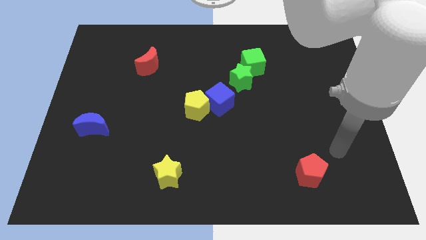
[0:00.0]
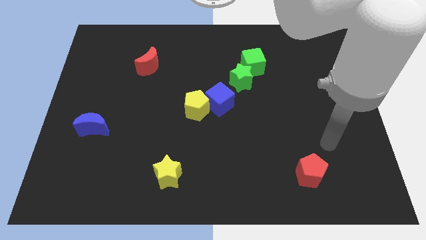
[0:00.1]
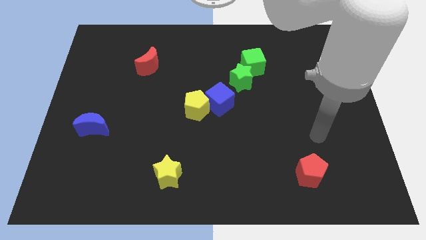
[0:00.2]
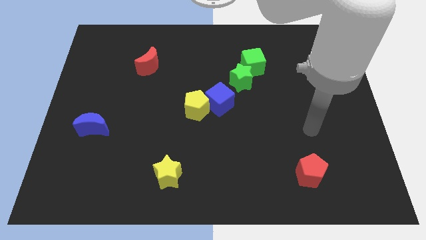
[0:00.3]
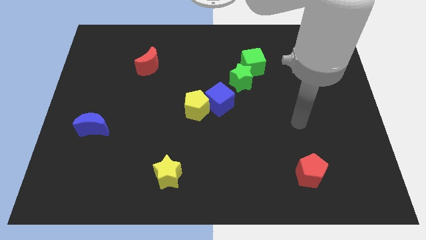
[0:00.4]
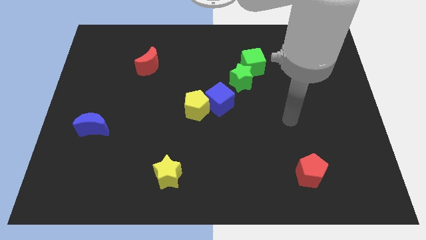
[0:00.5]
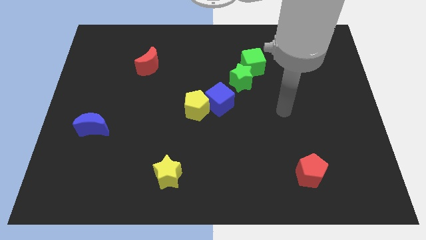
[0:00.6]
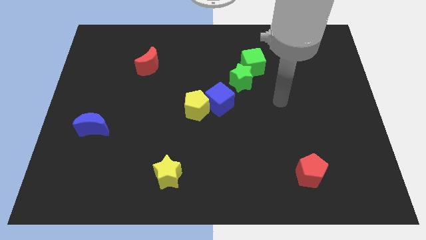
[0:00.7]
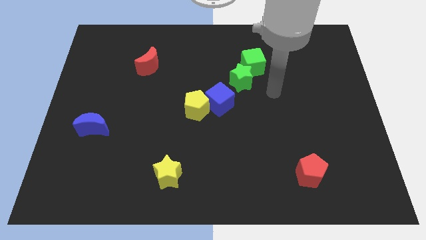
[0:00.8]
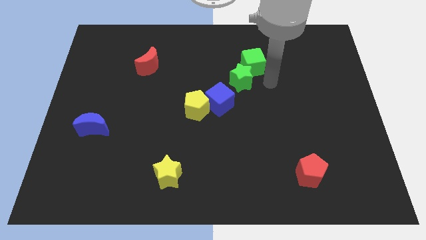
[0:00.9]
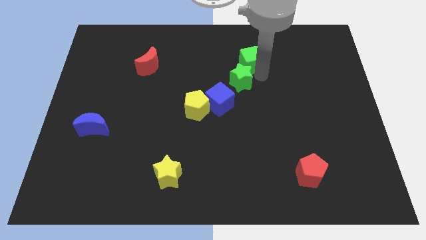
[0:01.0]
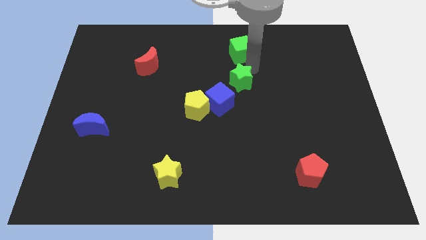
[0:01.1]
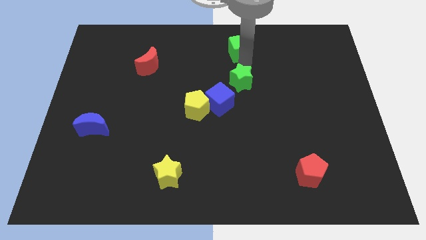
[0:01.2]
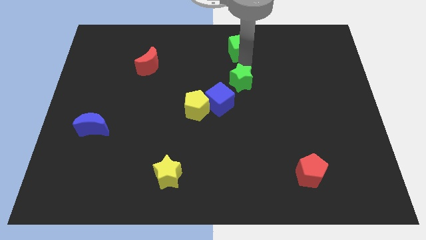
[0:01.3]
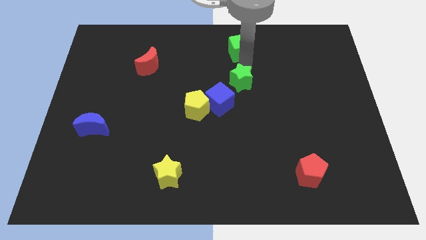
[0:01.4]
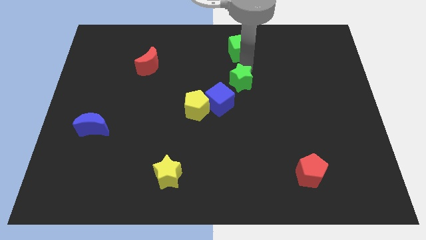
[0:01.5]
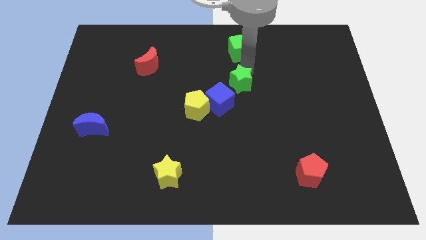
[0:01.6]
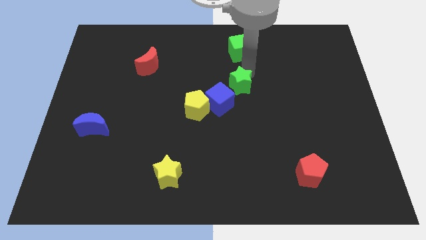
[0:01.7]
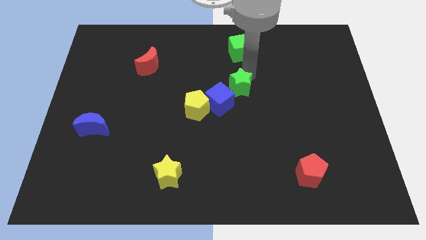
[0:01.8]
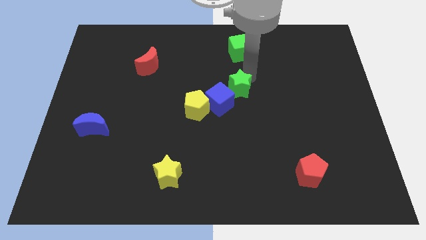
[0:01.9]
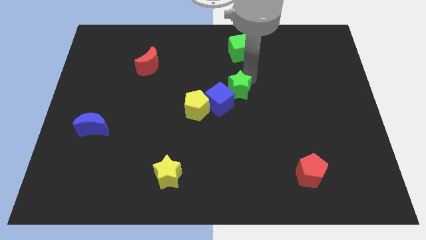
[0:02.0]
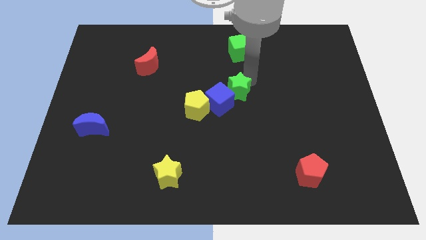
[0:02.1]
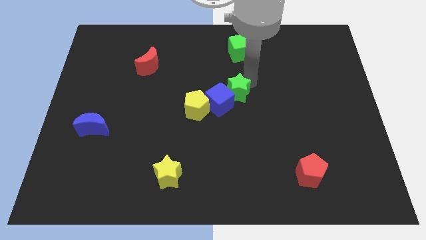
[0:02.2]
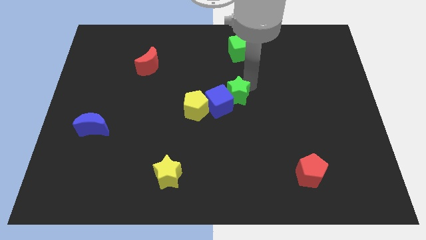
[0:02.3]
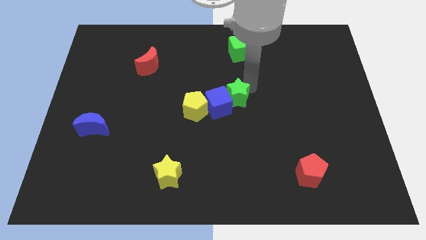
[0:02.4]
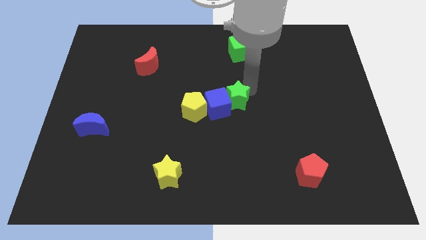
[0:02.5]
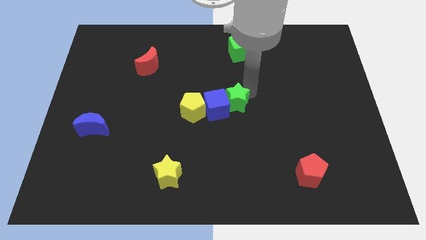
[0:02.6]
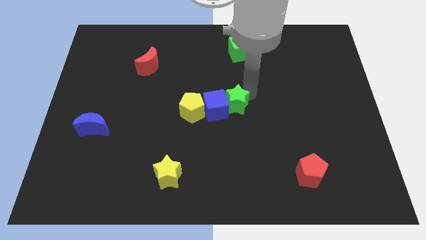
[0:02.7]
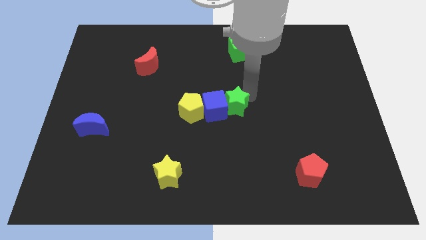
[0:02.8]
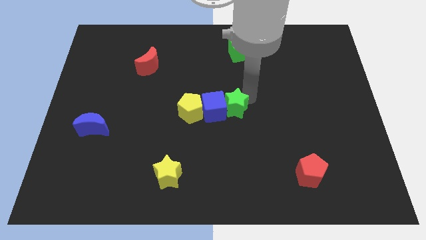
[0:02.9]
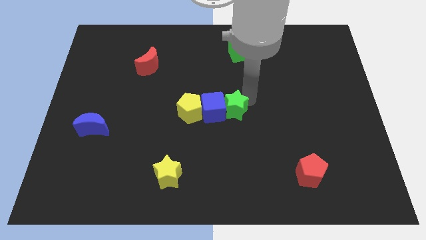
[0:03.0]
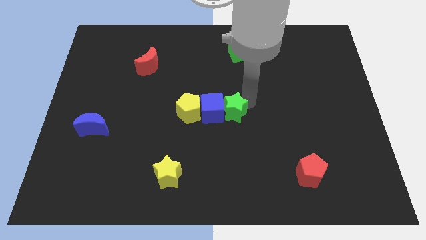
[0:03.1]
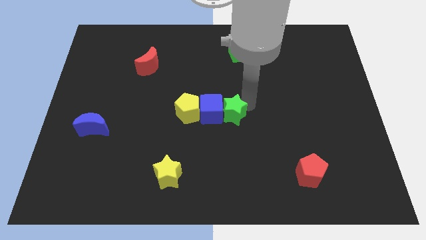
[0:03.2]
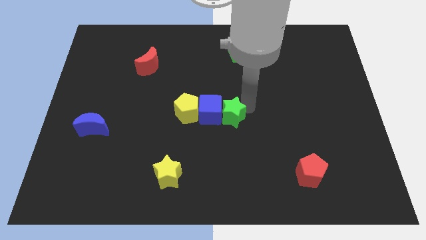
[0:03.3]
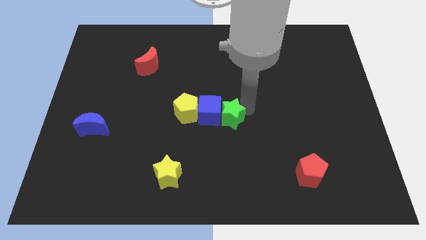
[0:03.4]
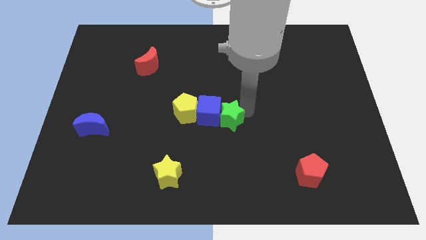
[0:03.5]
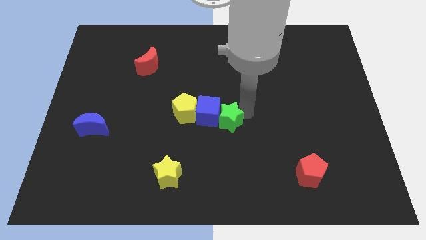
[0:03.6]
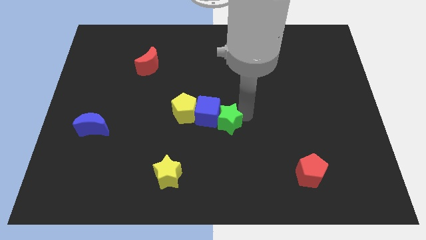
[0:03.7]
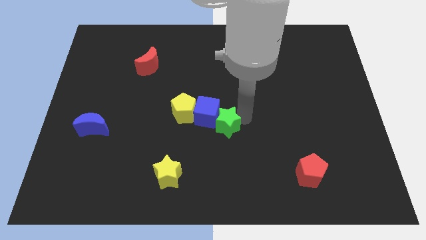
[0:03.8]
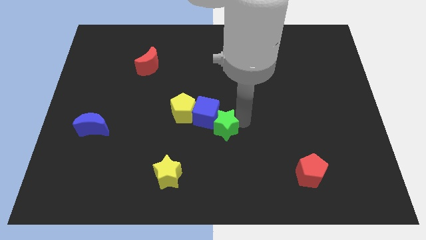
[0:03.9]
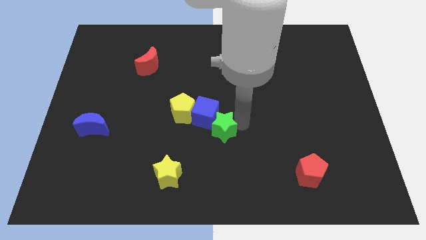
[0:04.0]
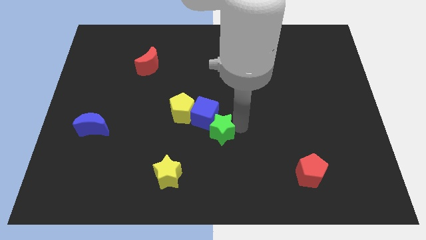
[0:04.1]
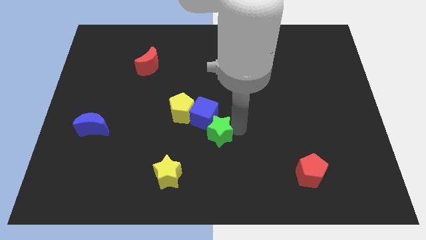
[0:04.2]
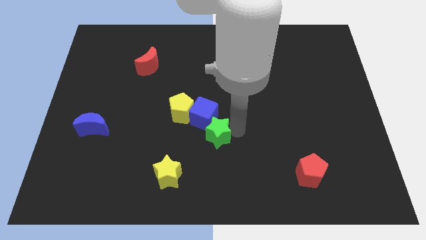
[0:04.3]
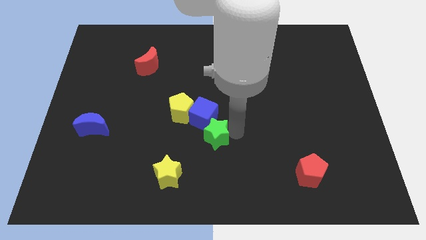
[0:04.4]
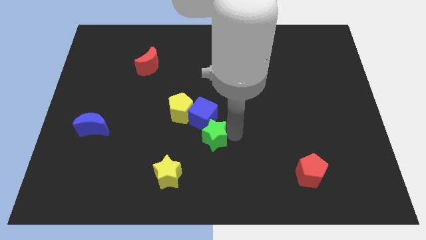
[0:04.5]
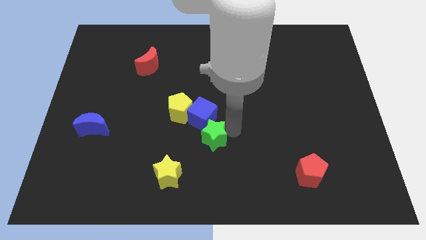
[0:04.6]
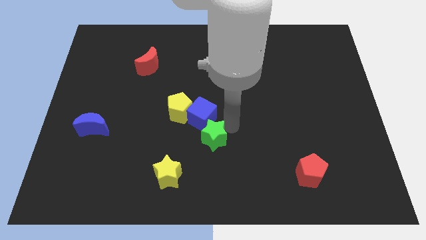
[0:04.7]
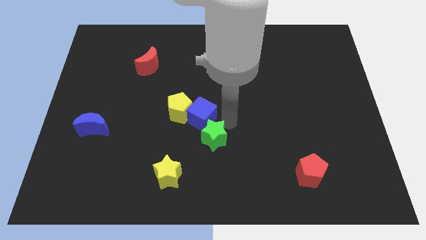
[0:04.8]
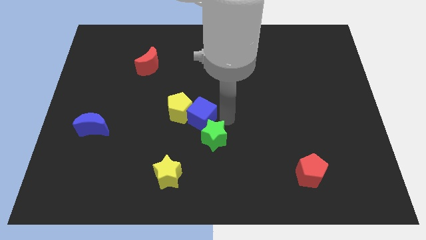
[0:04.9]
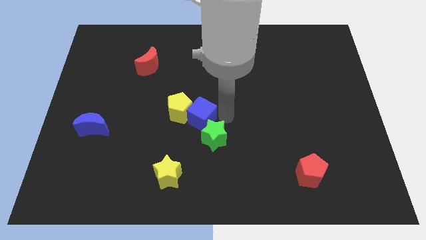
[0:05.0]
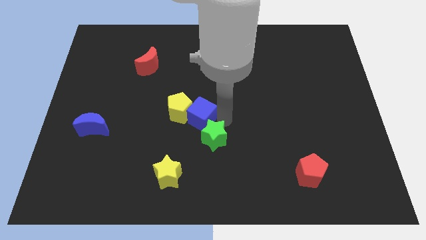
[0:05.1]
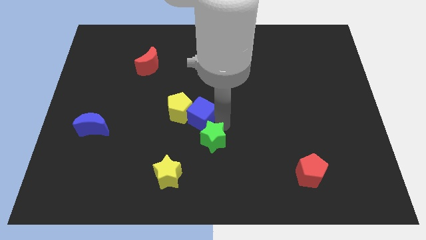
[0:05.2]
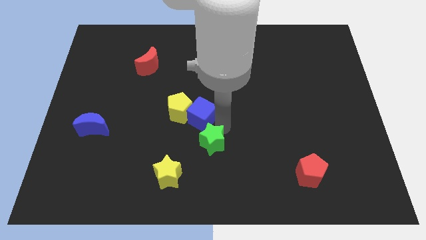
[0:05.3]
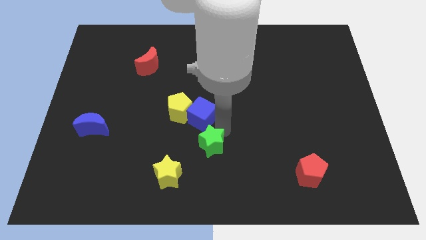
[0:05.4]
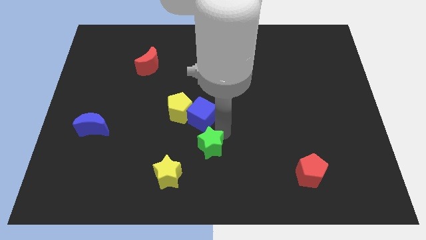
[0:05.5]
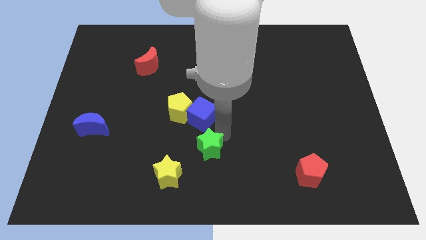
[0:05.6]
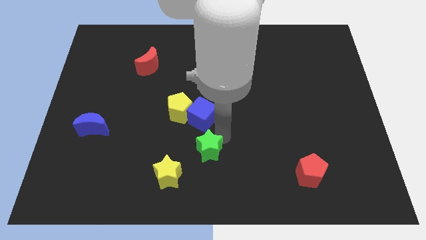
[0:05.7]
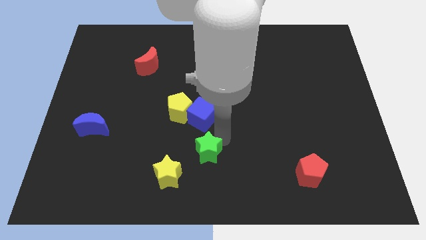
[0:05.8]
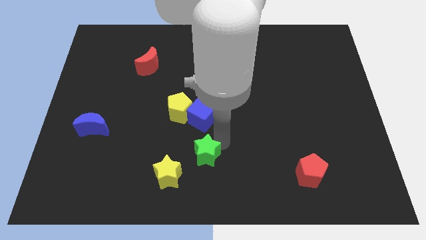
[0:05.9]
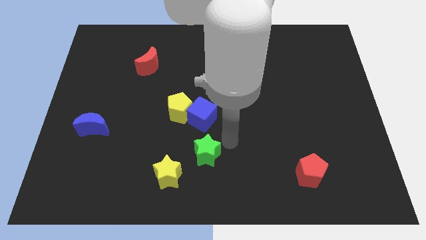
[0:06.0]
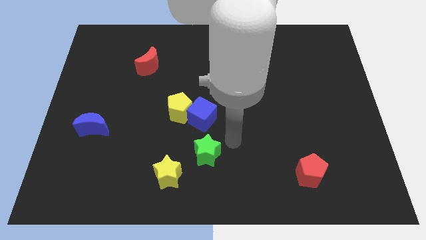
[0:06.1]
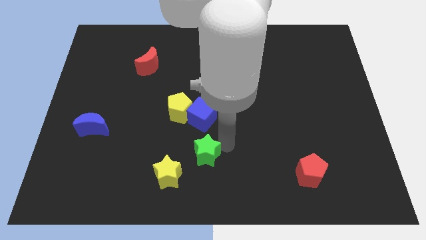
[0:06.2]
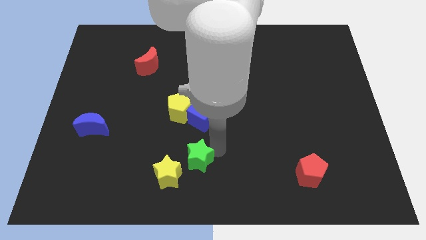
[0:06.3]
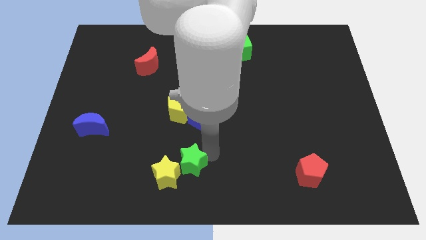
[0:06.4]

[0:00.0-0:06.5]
put the green star next to the yellow star

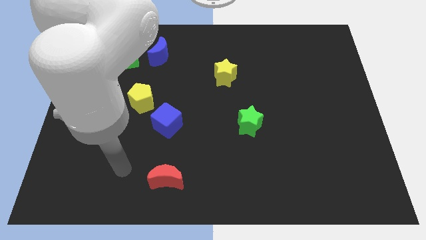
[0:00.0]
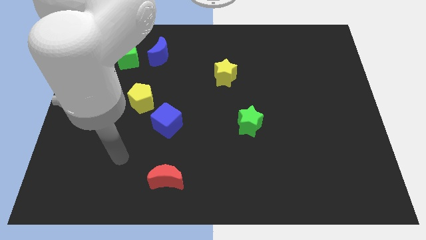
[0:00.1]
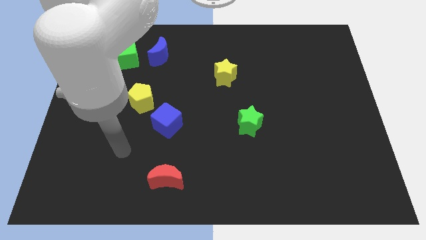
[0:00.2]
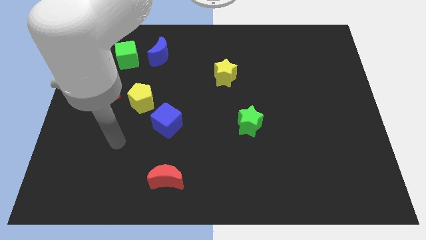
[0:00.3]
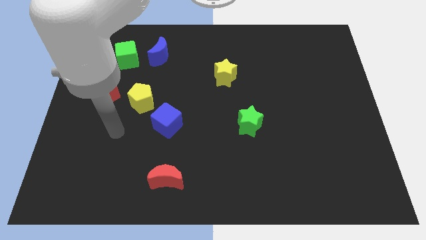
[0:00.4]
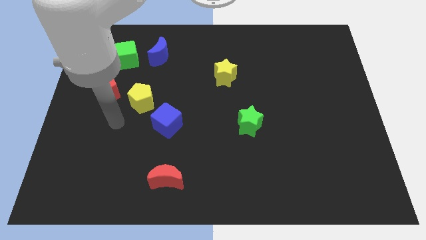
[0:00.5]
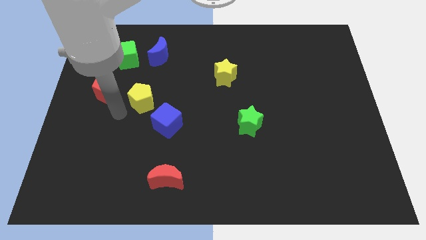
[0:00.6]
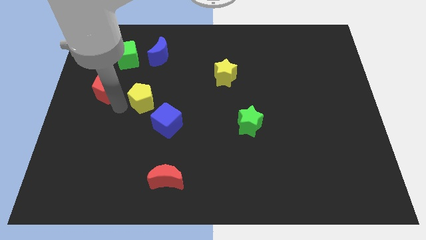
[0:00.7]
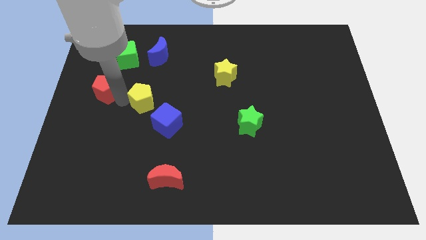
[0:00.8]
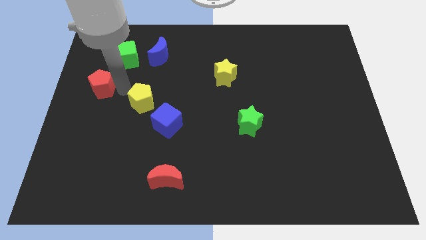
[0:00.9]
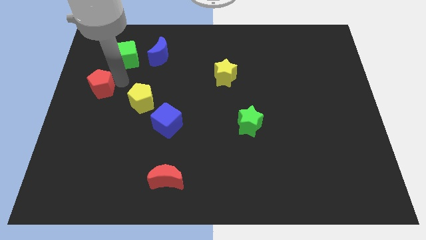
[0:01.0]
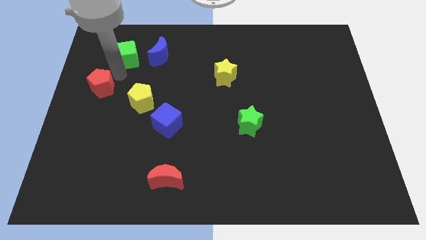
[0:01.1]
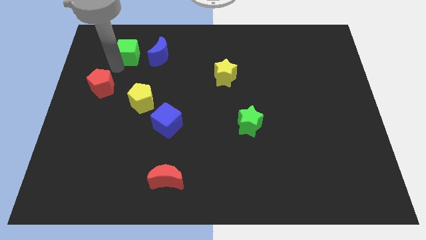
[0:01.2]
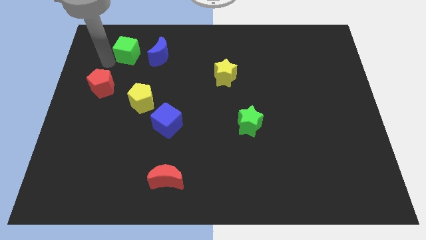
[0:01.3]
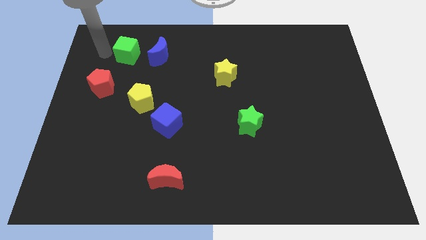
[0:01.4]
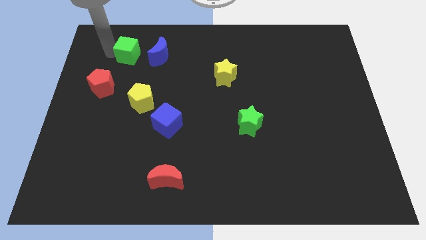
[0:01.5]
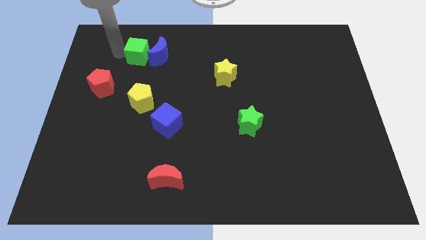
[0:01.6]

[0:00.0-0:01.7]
put the green cube to the blue moon
